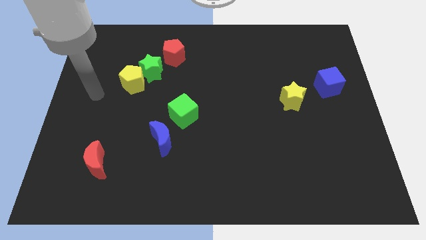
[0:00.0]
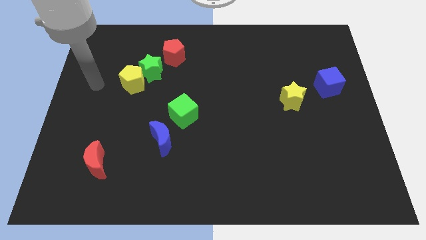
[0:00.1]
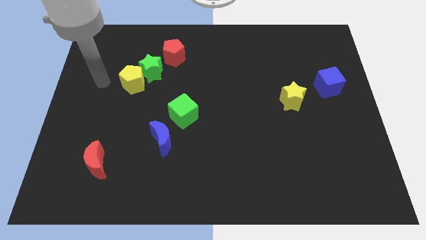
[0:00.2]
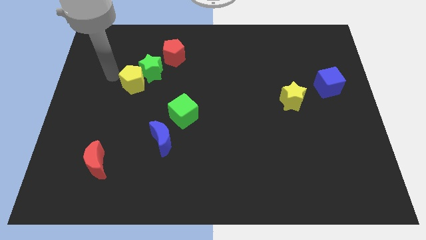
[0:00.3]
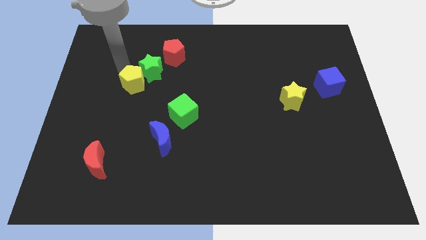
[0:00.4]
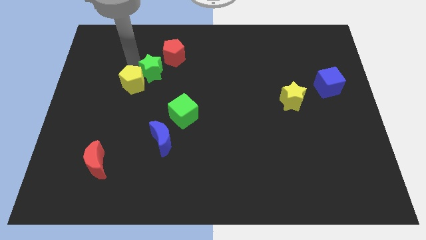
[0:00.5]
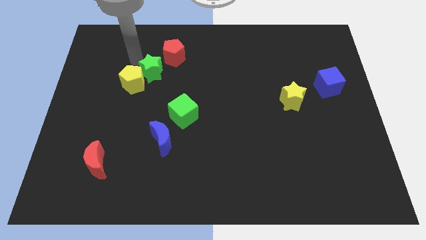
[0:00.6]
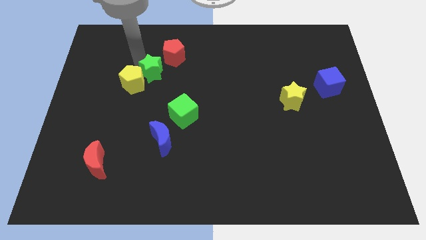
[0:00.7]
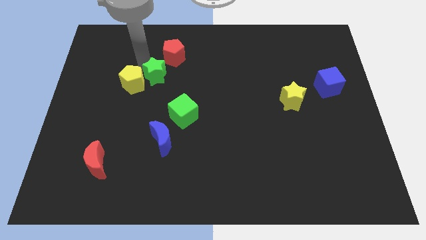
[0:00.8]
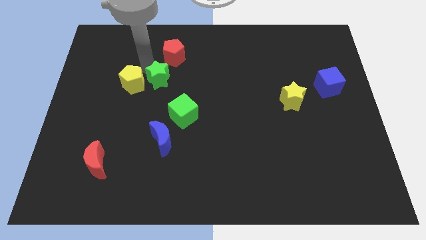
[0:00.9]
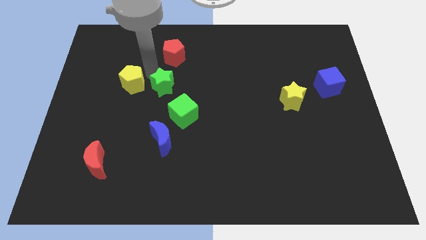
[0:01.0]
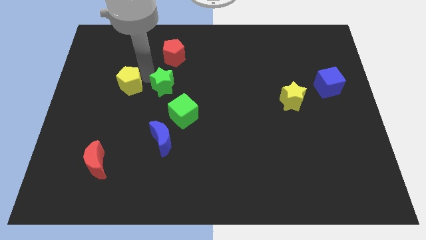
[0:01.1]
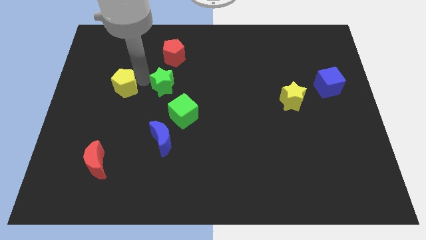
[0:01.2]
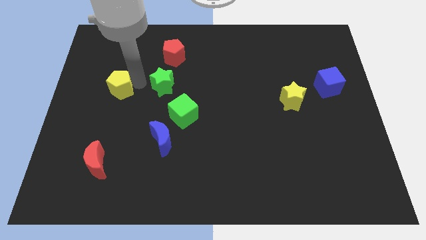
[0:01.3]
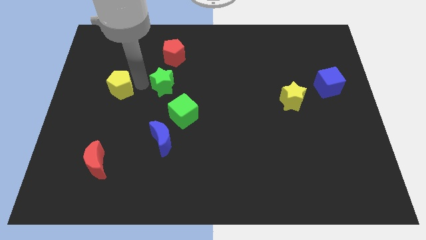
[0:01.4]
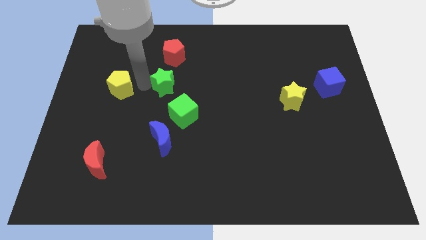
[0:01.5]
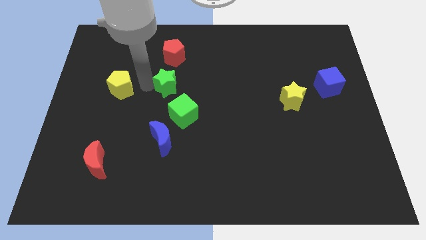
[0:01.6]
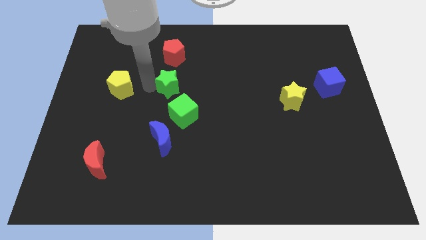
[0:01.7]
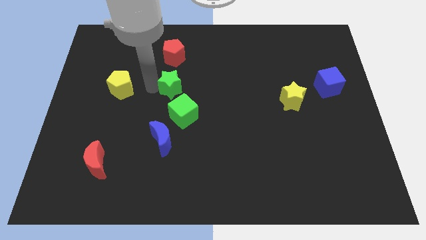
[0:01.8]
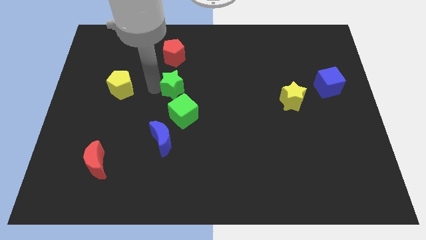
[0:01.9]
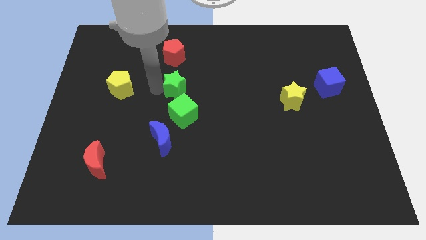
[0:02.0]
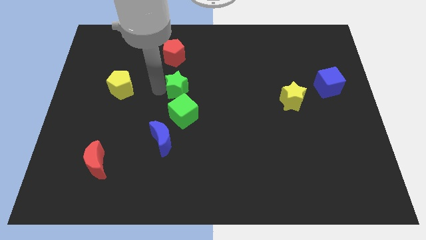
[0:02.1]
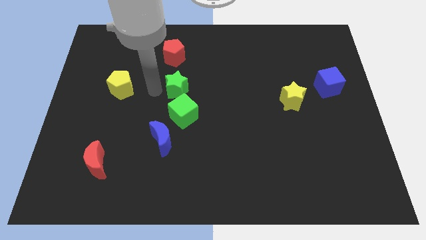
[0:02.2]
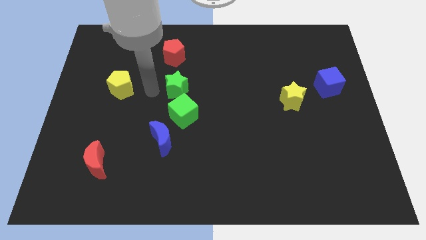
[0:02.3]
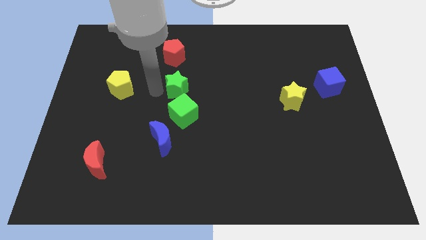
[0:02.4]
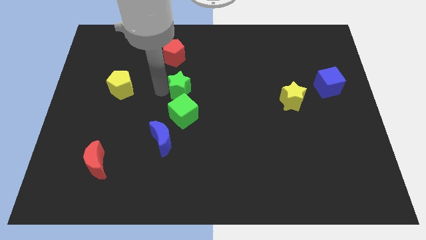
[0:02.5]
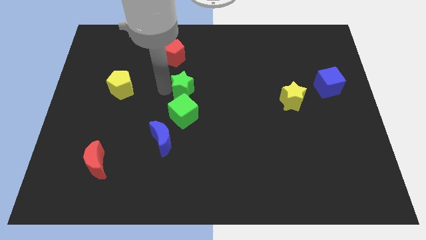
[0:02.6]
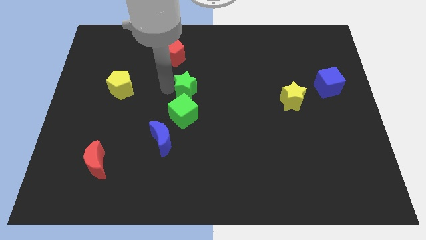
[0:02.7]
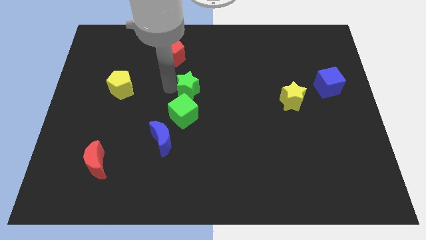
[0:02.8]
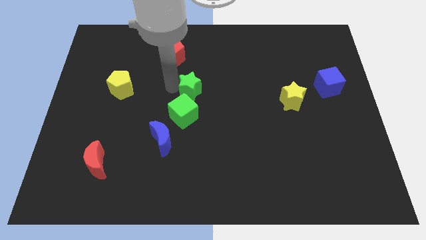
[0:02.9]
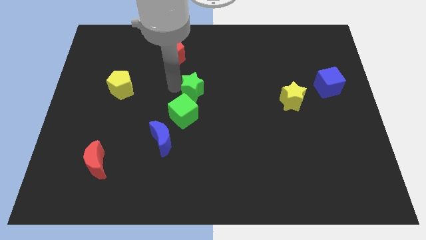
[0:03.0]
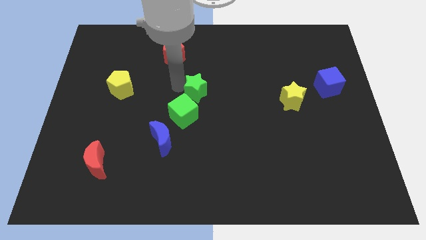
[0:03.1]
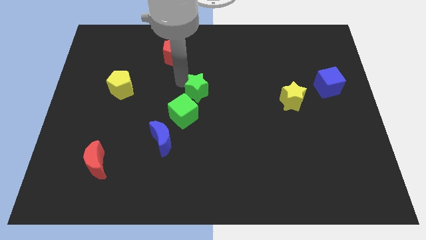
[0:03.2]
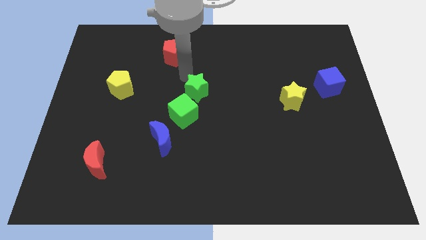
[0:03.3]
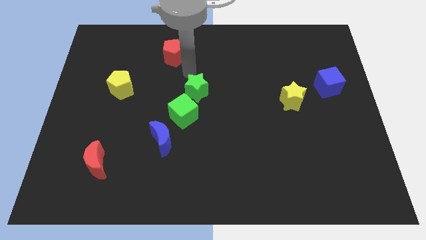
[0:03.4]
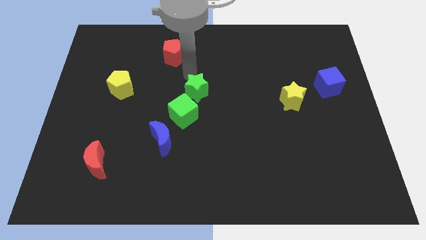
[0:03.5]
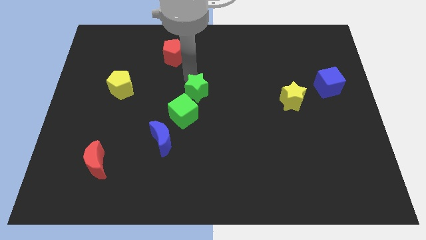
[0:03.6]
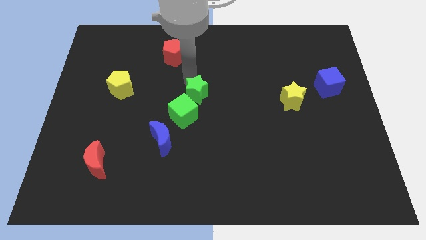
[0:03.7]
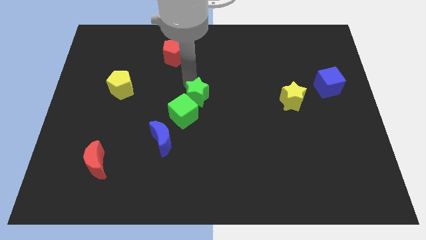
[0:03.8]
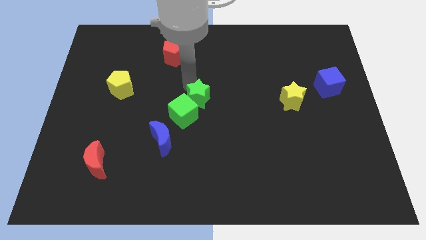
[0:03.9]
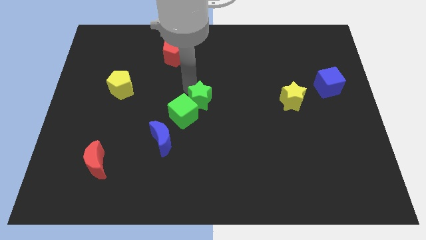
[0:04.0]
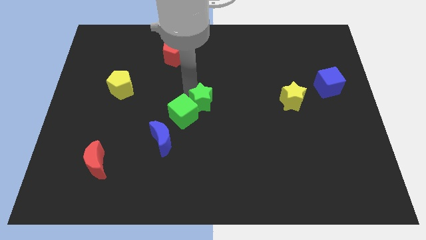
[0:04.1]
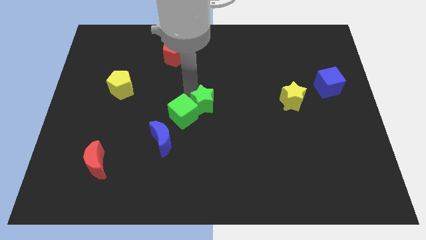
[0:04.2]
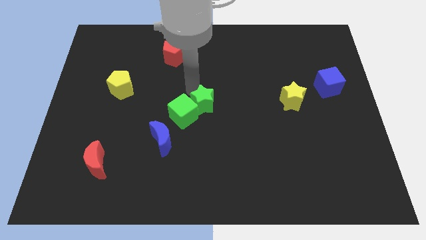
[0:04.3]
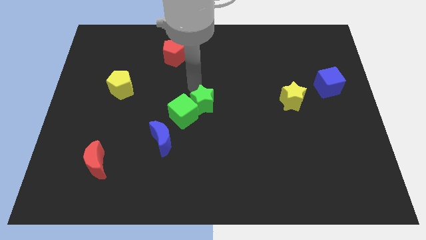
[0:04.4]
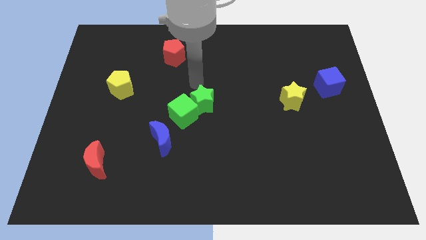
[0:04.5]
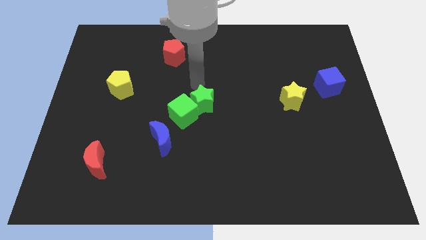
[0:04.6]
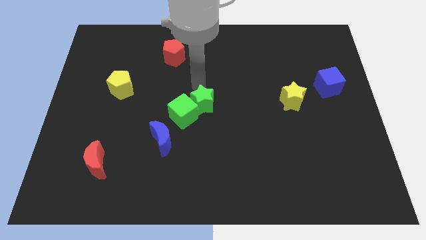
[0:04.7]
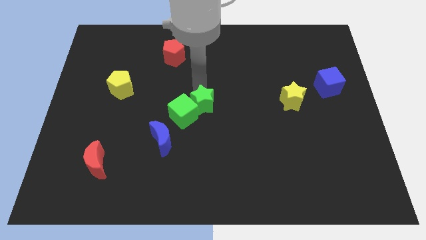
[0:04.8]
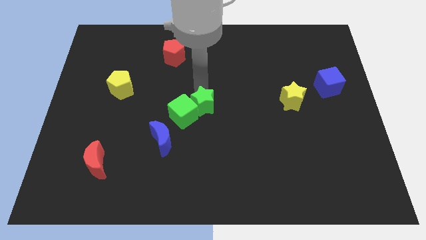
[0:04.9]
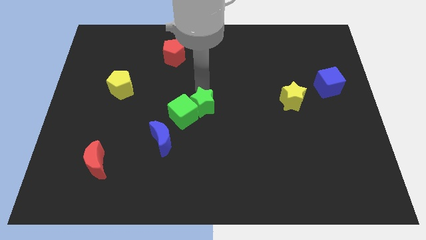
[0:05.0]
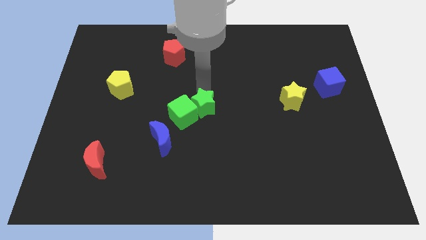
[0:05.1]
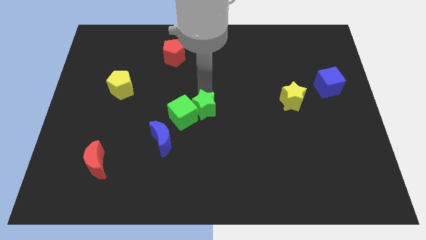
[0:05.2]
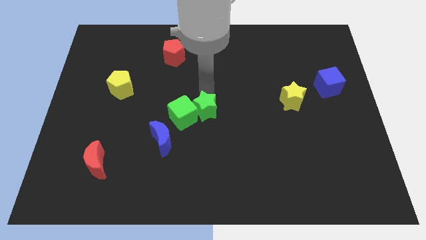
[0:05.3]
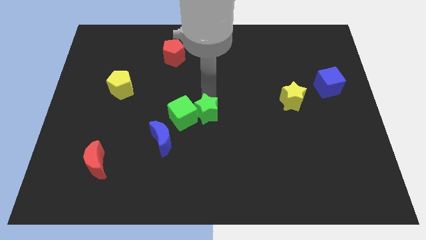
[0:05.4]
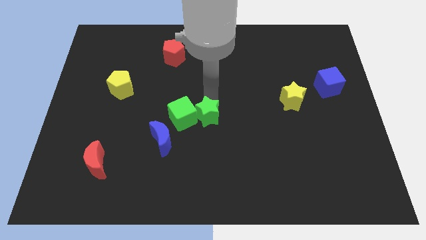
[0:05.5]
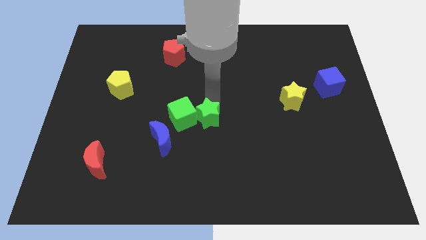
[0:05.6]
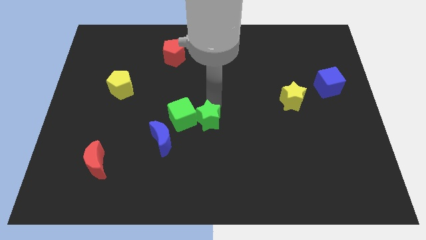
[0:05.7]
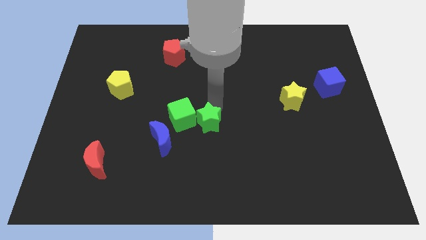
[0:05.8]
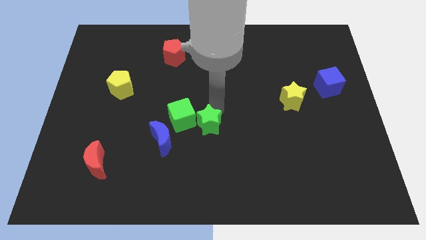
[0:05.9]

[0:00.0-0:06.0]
move the green star right of the blue moon

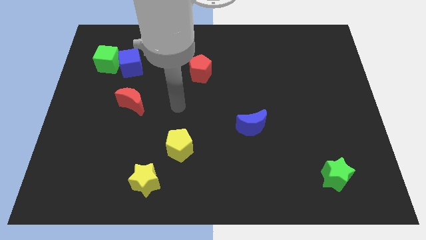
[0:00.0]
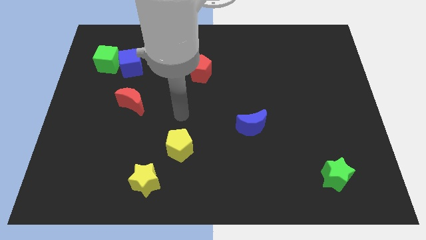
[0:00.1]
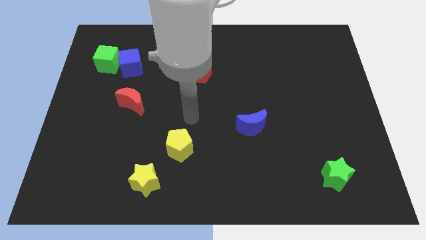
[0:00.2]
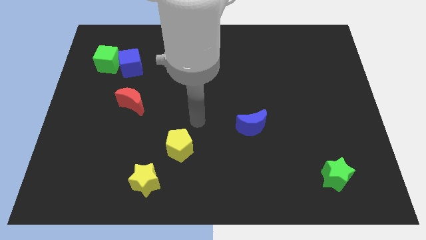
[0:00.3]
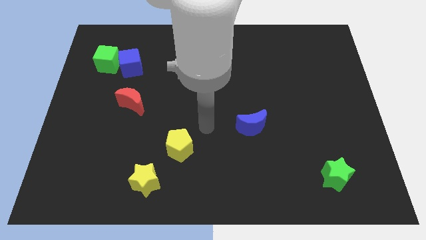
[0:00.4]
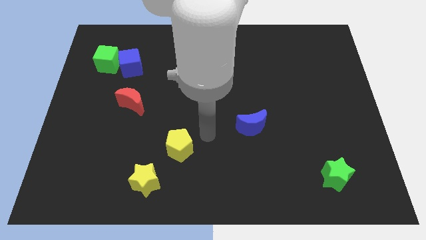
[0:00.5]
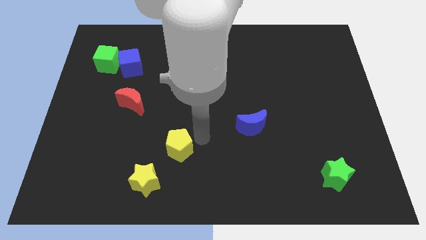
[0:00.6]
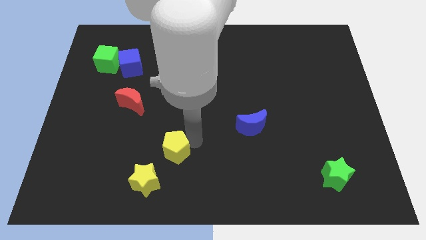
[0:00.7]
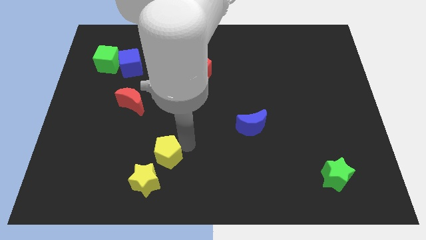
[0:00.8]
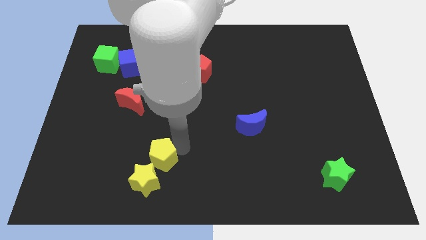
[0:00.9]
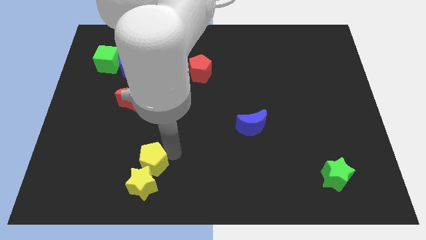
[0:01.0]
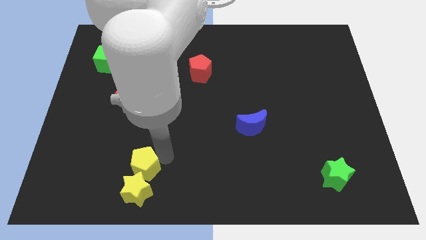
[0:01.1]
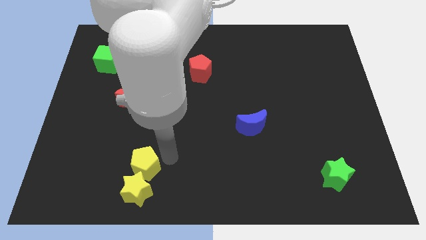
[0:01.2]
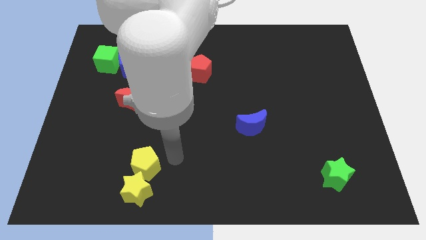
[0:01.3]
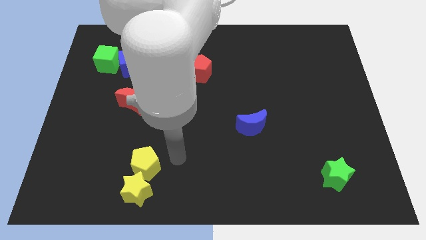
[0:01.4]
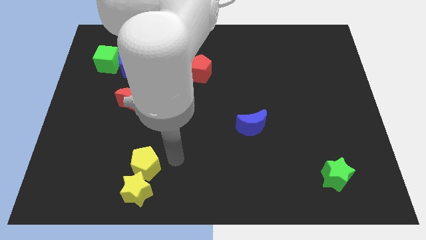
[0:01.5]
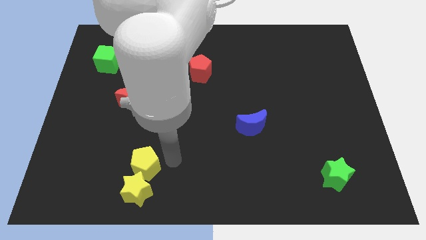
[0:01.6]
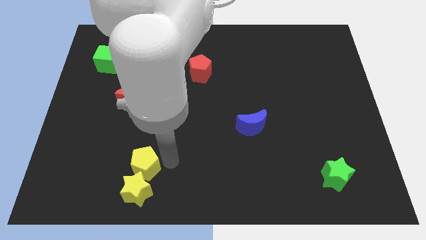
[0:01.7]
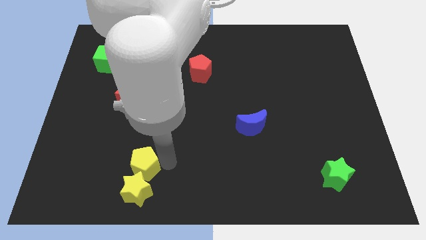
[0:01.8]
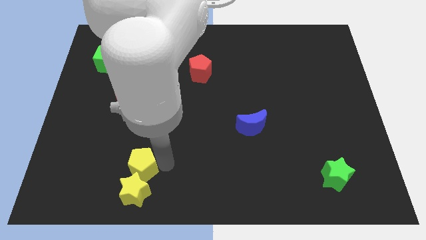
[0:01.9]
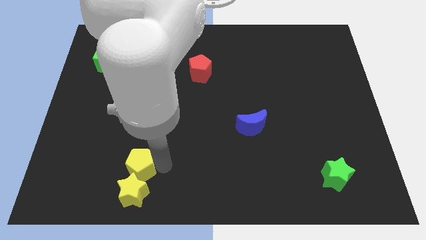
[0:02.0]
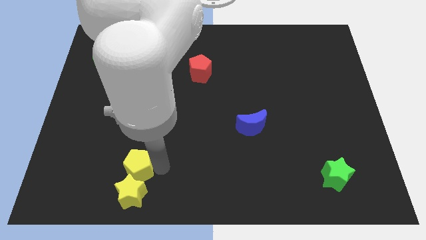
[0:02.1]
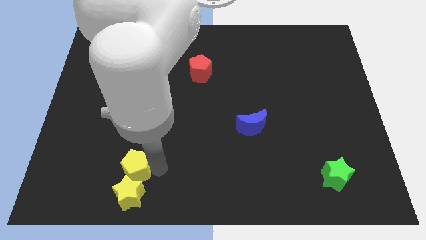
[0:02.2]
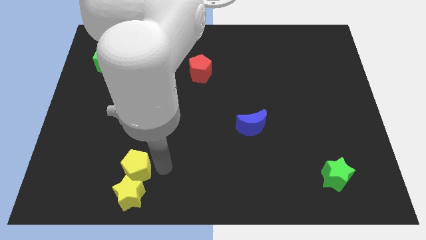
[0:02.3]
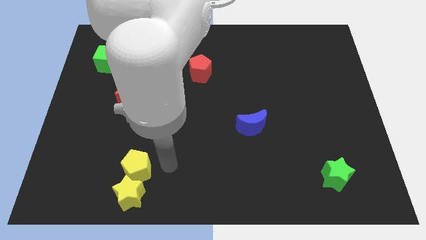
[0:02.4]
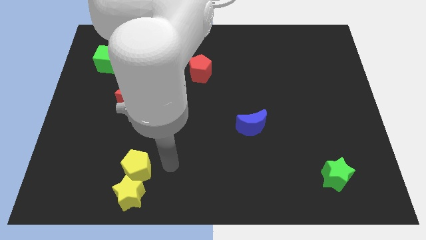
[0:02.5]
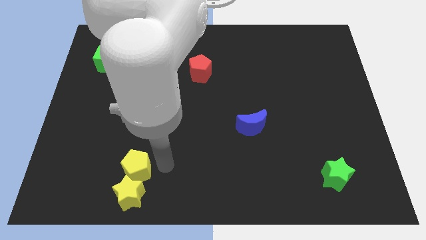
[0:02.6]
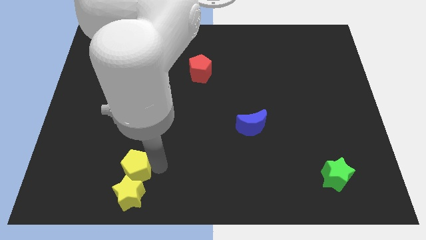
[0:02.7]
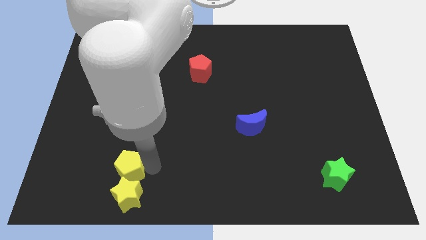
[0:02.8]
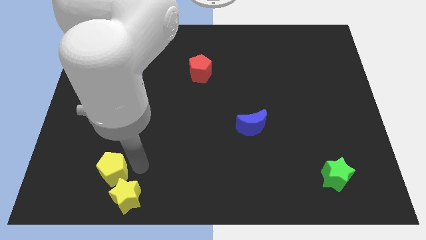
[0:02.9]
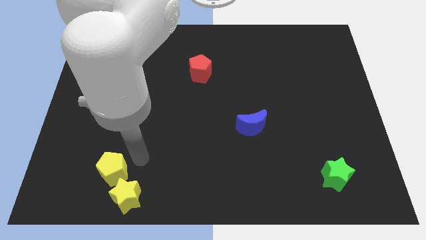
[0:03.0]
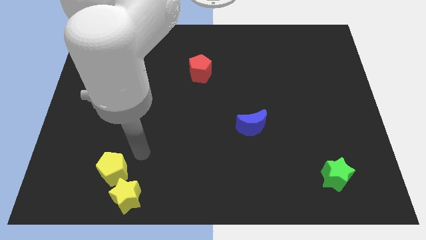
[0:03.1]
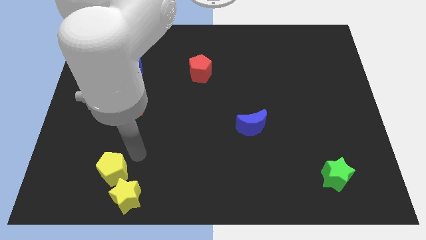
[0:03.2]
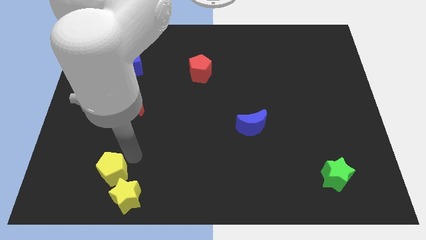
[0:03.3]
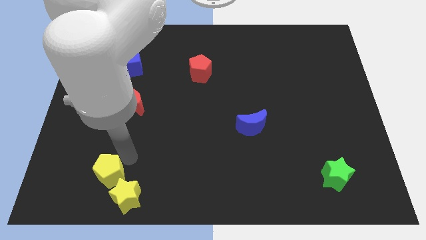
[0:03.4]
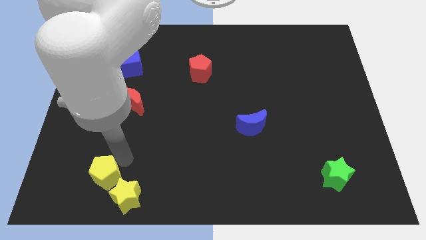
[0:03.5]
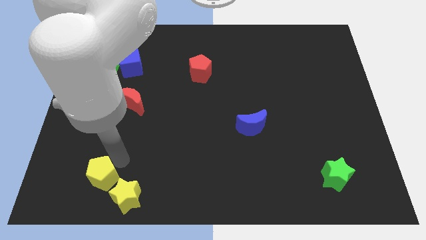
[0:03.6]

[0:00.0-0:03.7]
move the yellow pentagon left of the yellow star
